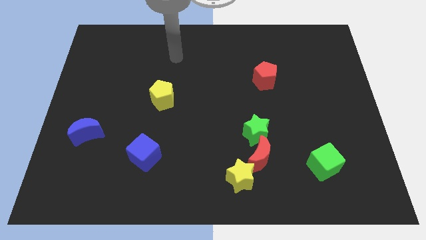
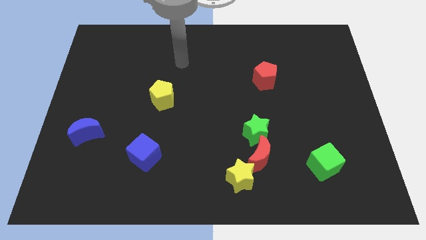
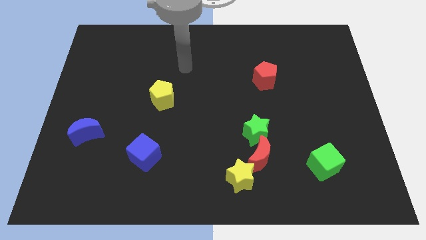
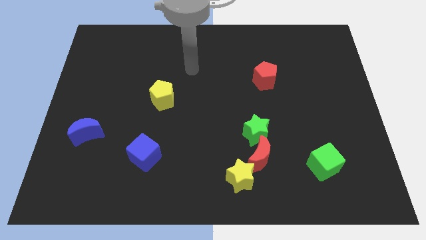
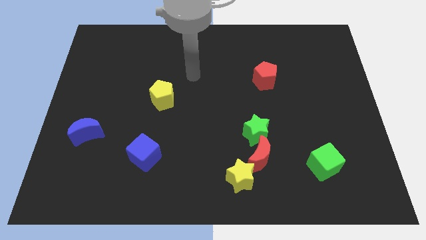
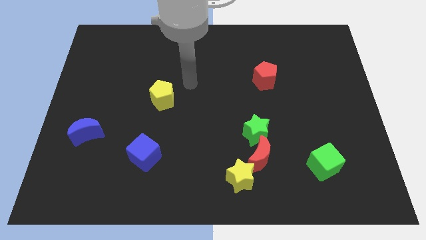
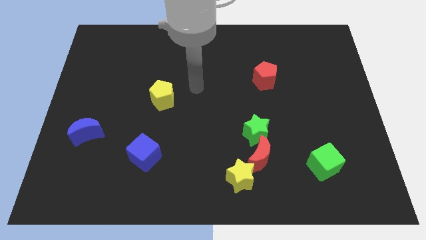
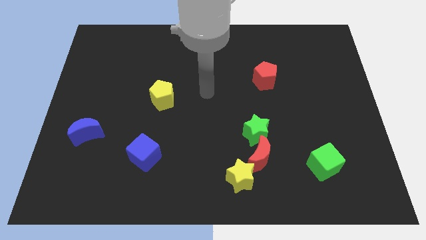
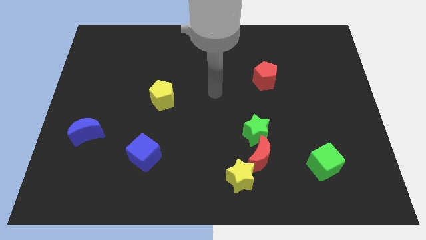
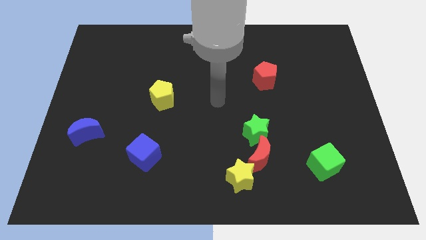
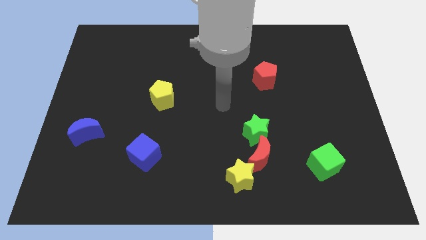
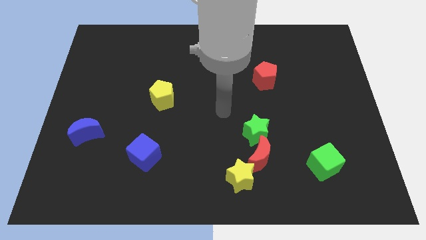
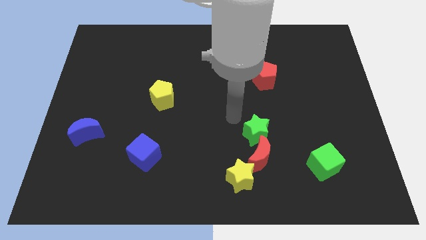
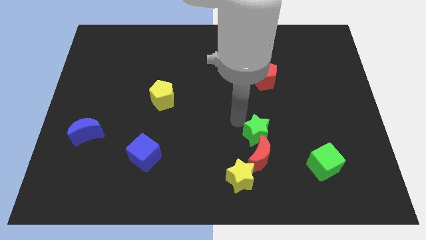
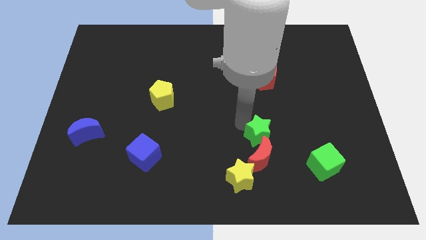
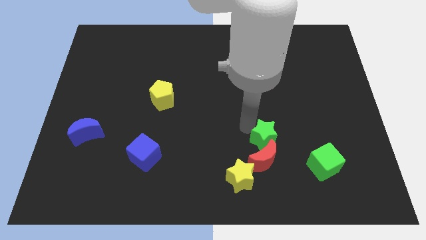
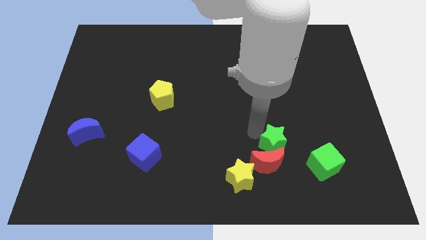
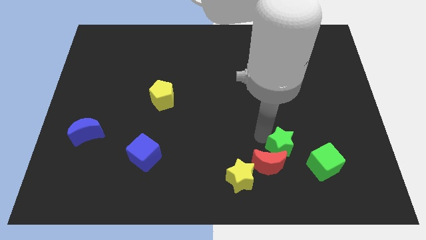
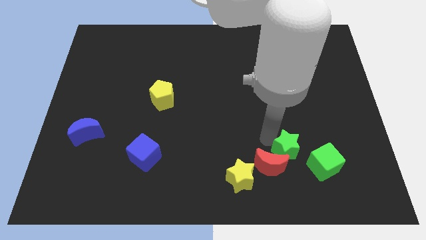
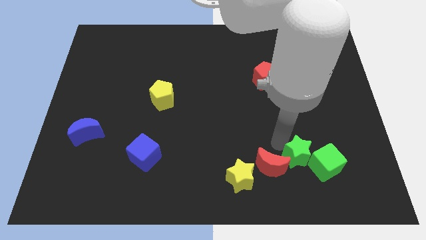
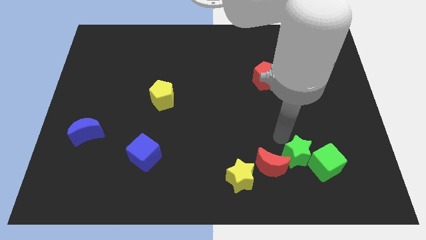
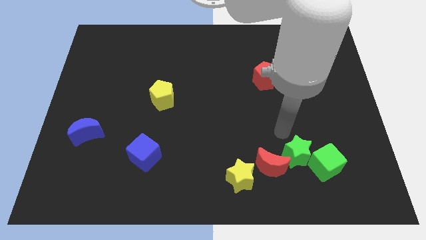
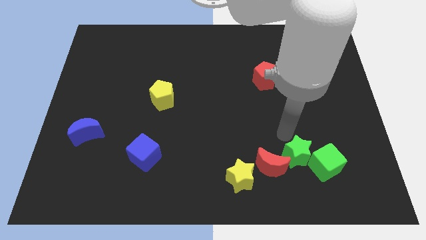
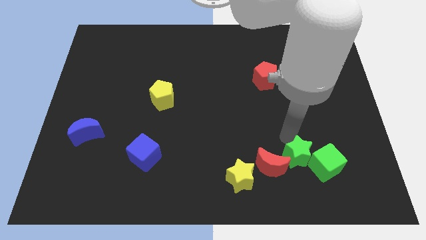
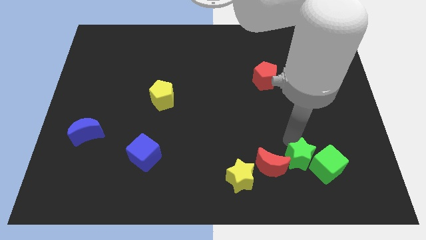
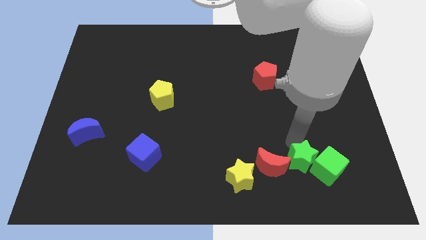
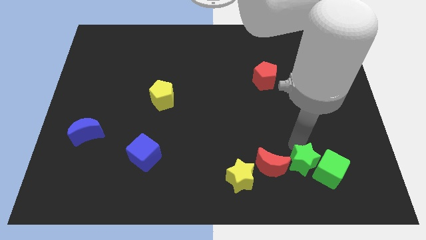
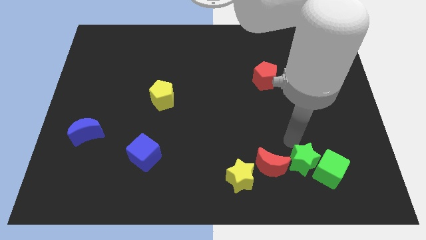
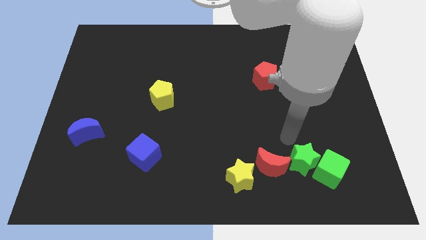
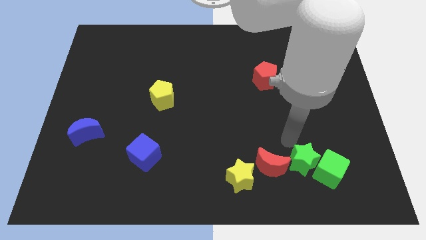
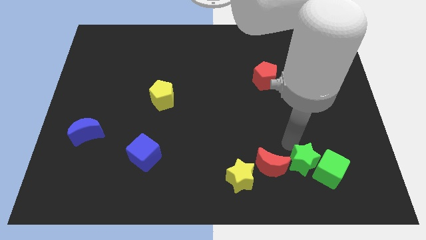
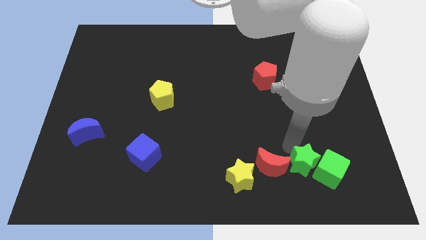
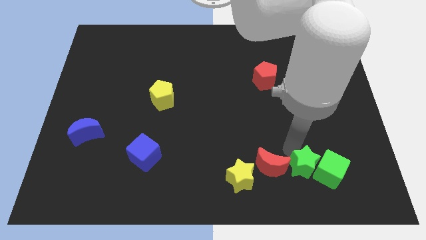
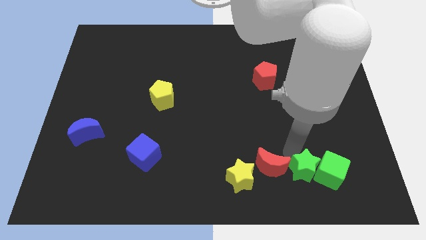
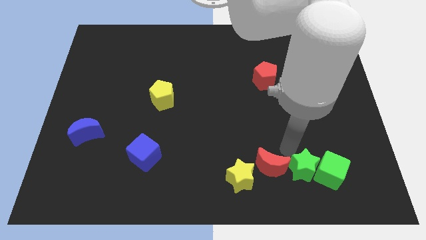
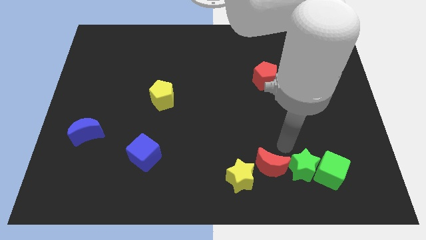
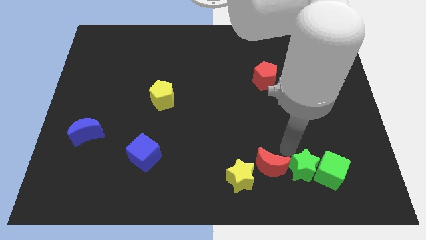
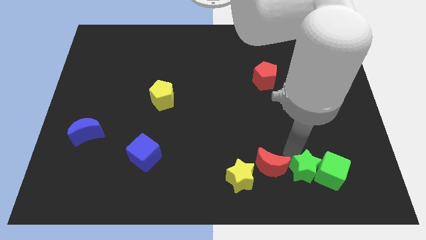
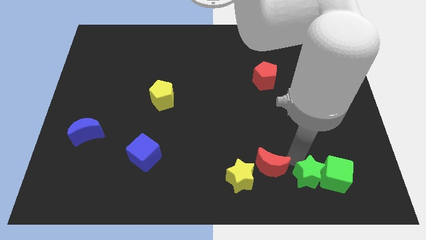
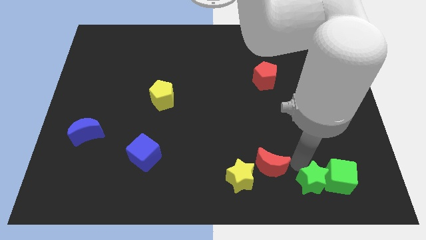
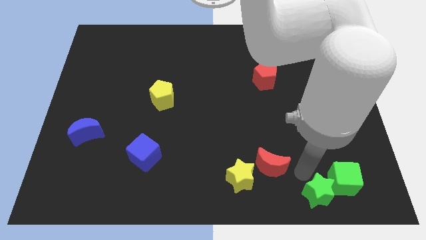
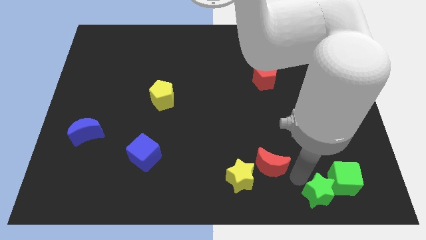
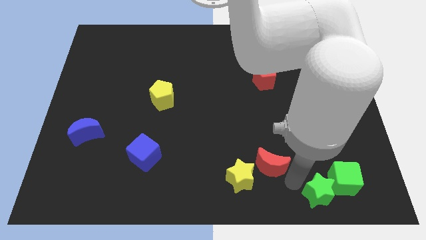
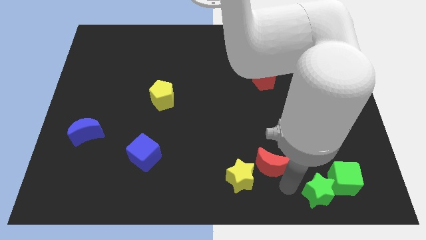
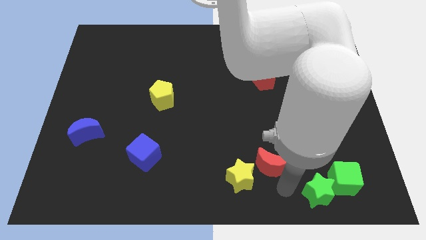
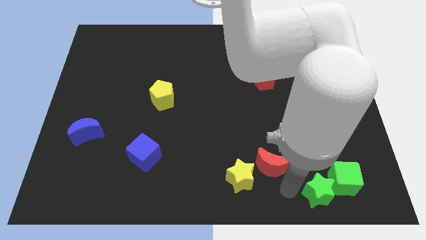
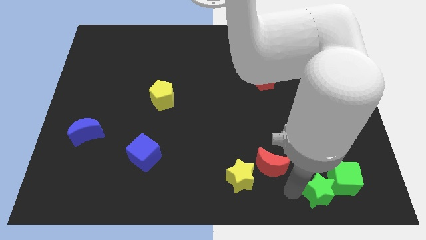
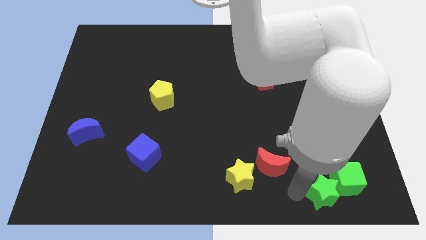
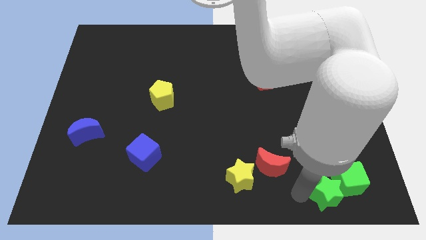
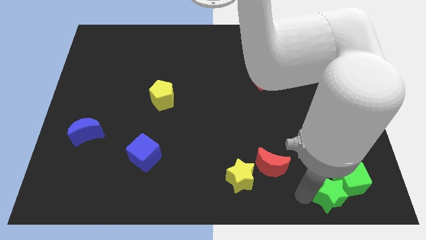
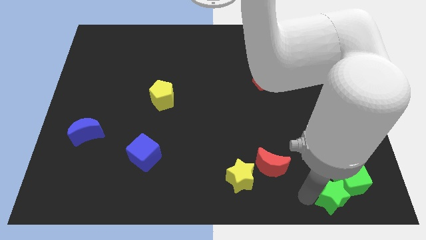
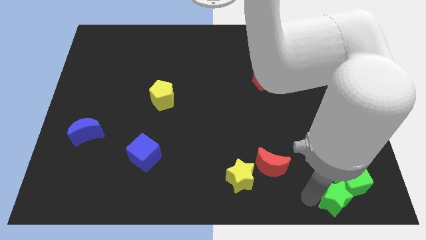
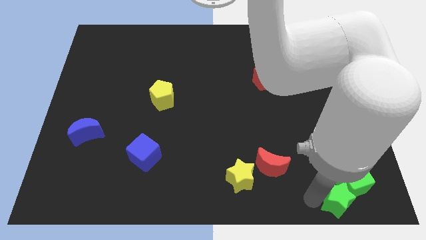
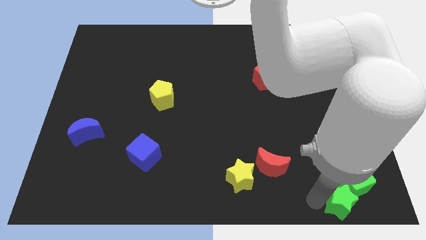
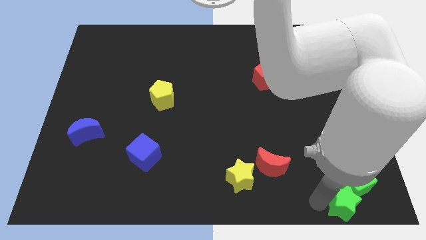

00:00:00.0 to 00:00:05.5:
push the green star to the bottom right of the board

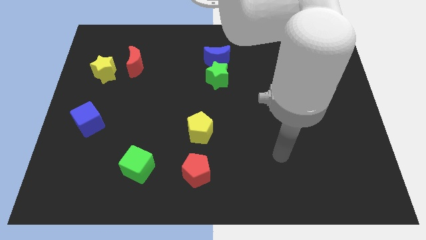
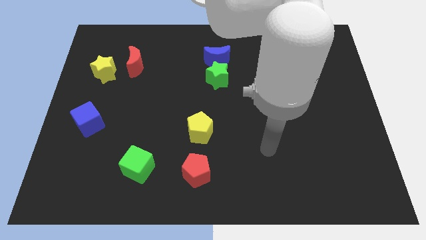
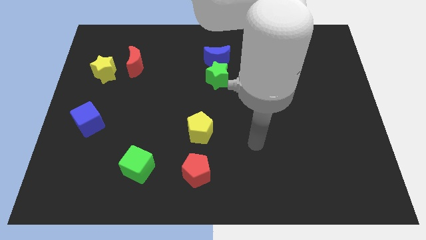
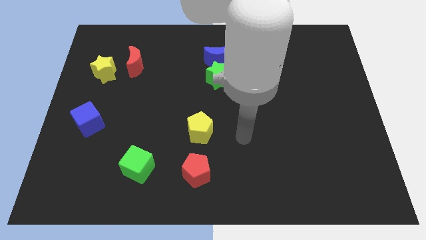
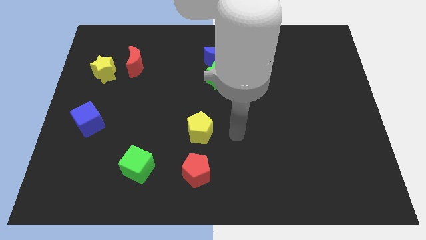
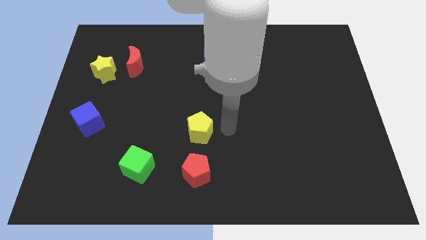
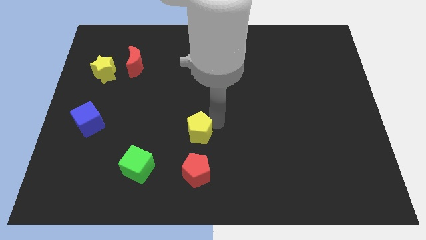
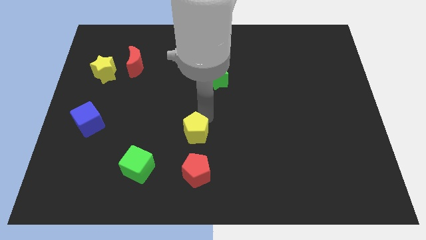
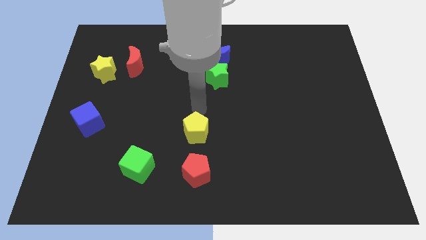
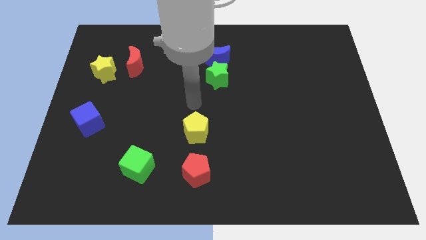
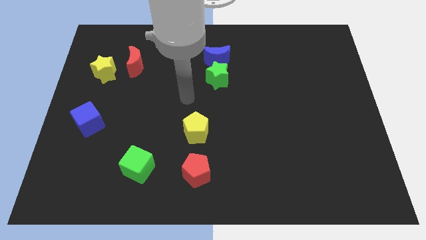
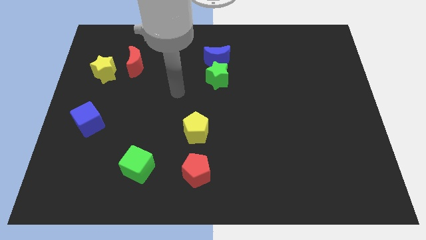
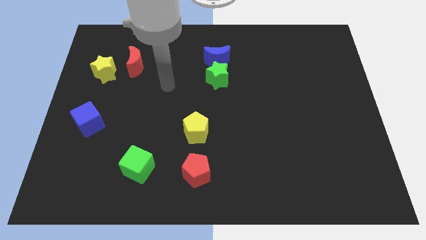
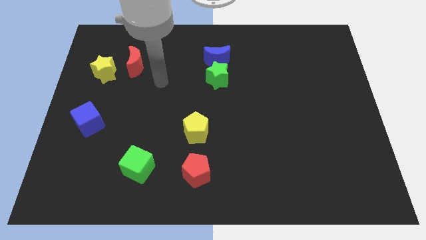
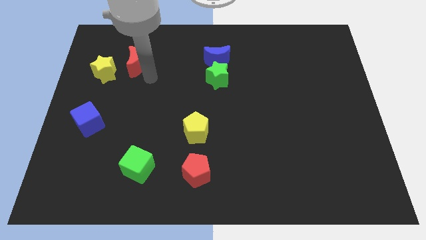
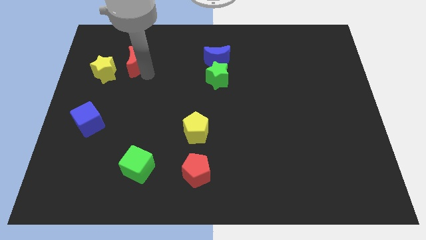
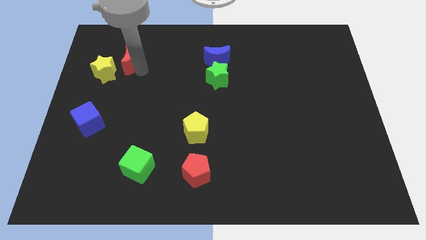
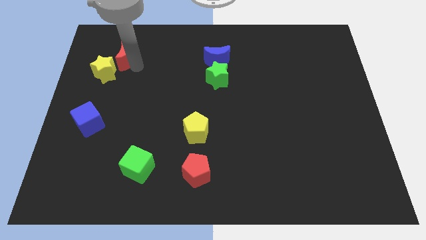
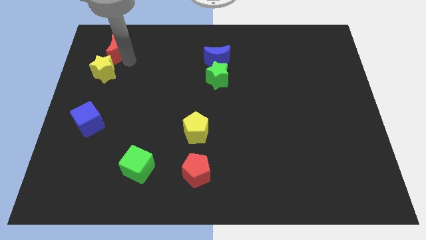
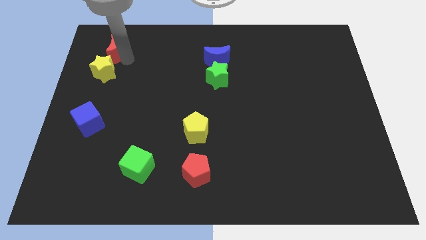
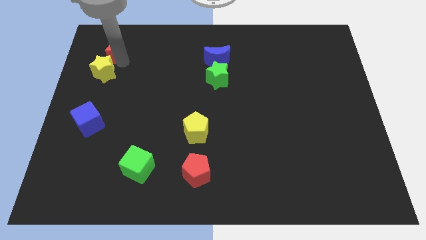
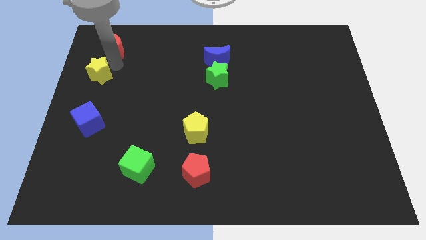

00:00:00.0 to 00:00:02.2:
push the yellow star to the left side
